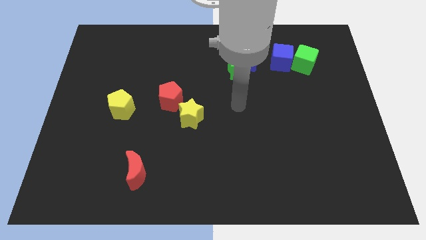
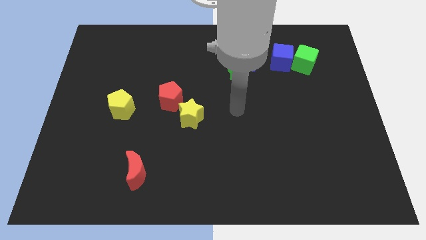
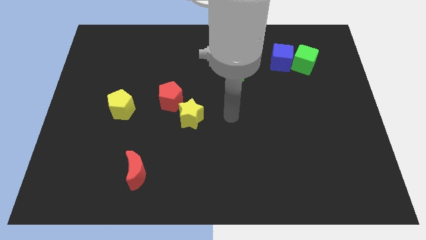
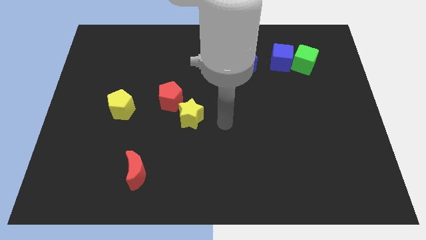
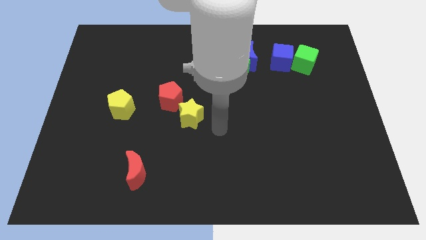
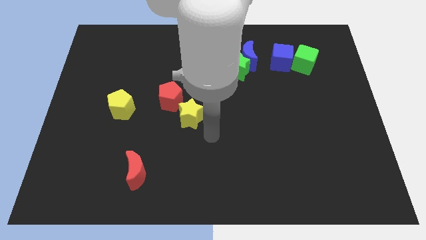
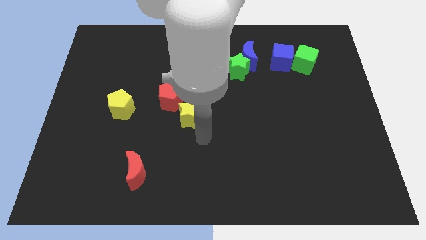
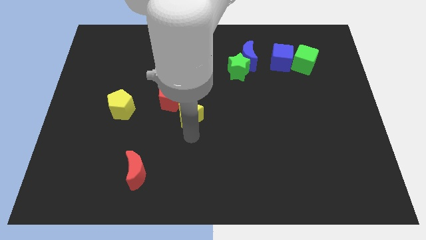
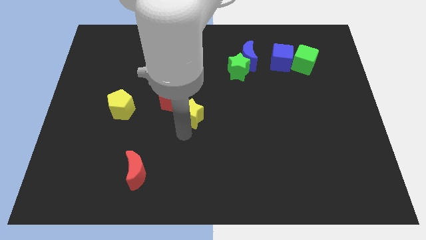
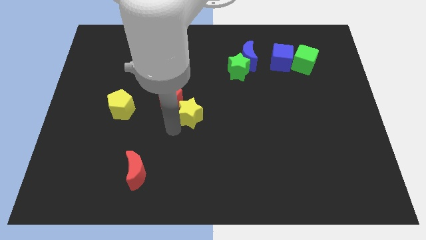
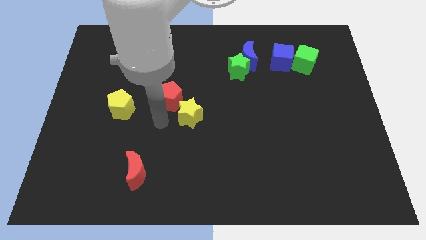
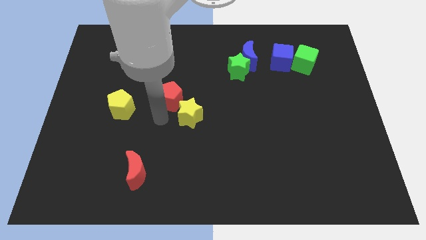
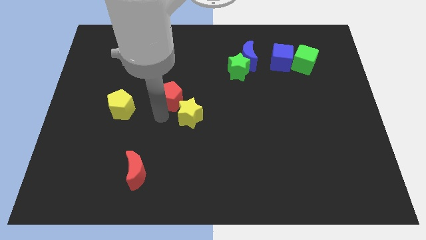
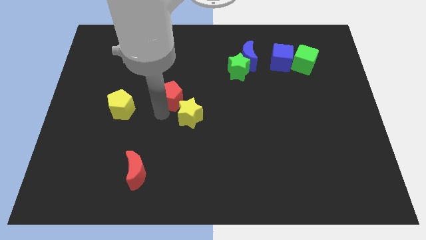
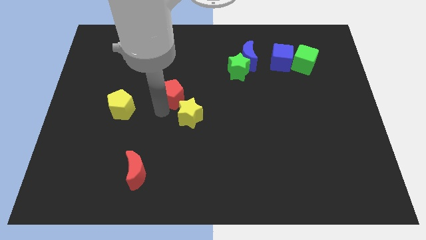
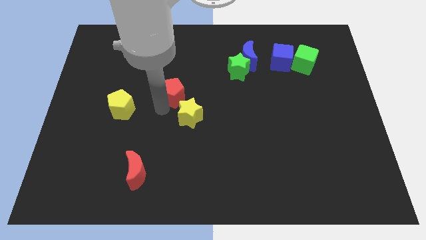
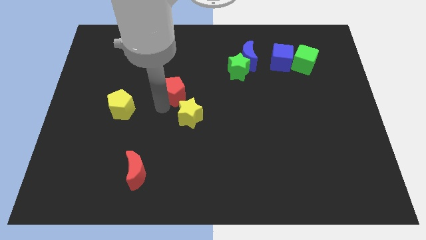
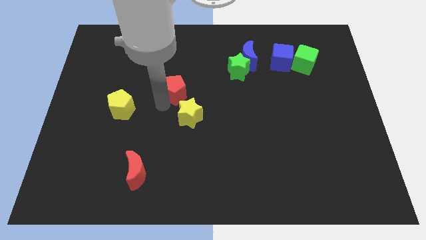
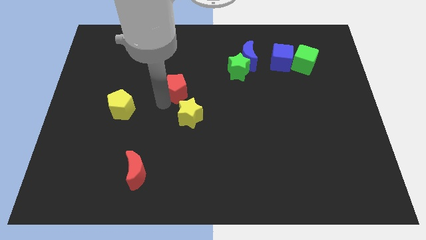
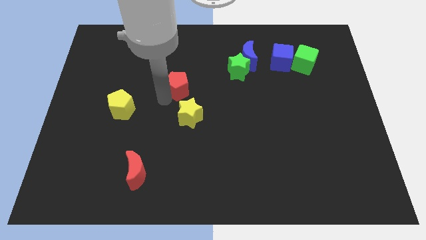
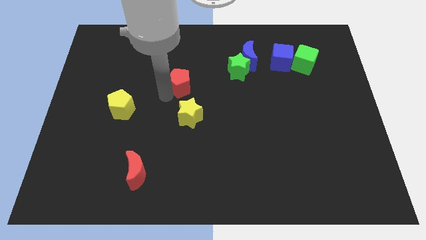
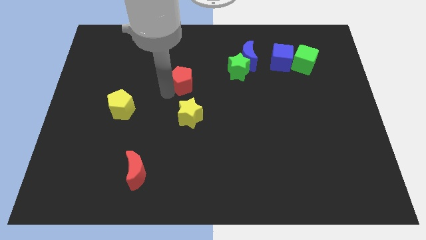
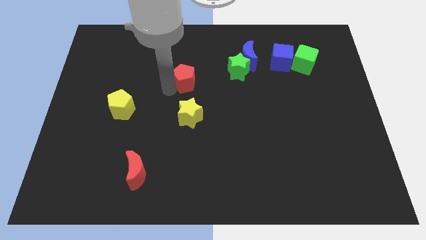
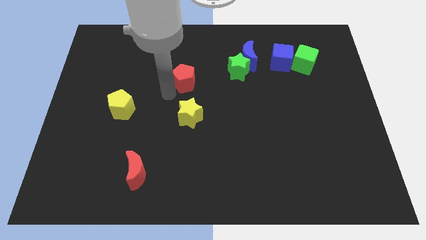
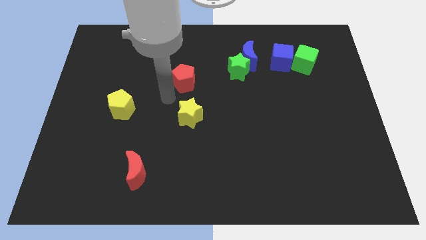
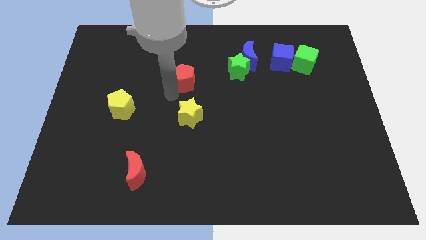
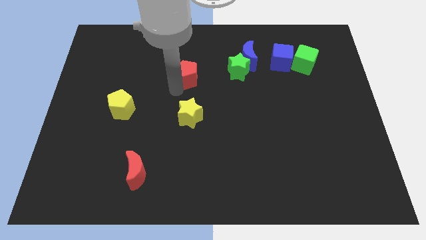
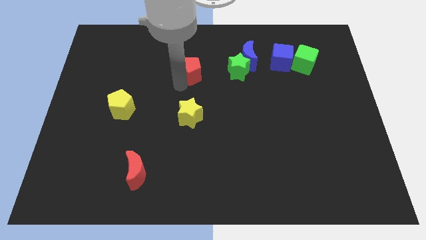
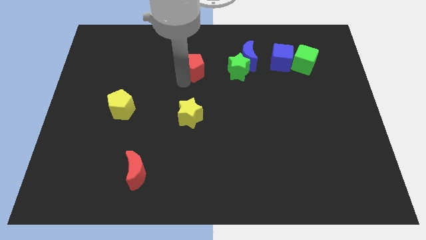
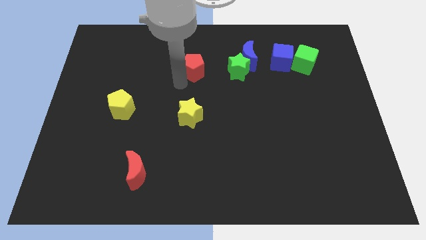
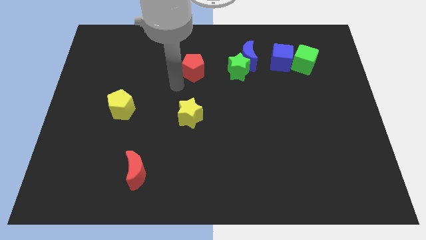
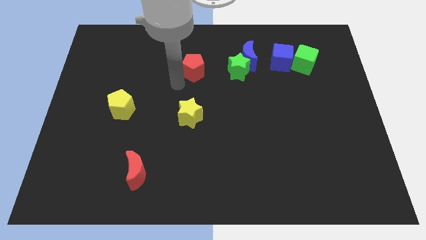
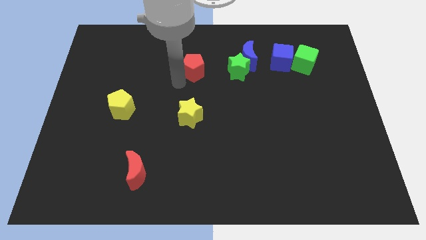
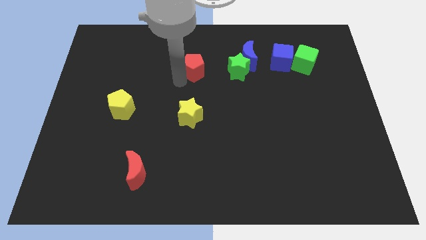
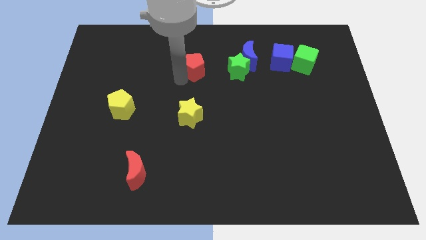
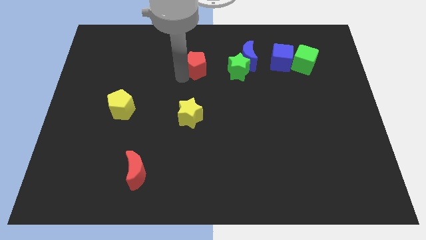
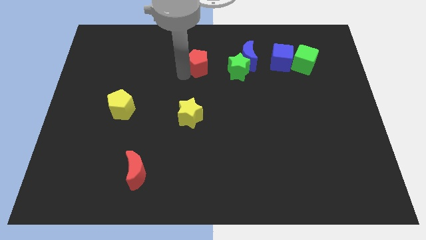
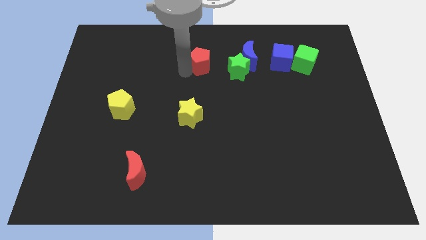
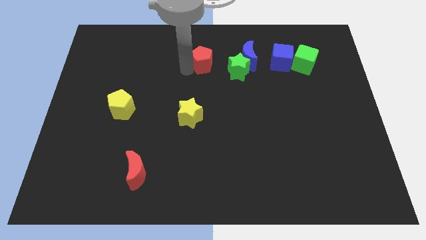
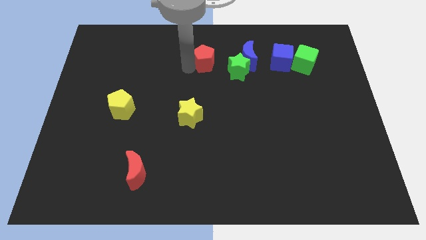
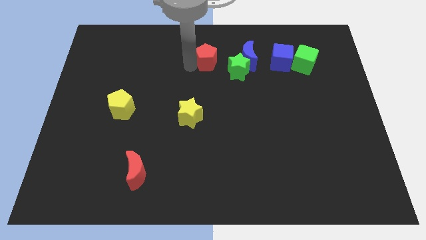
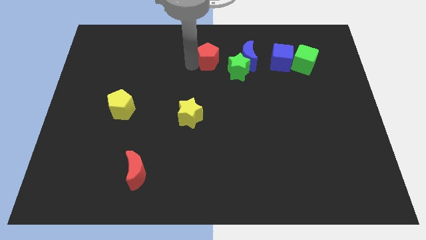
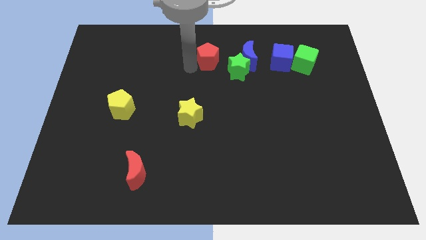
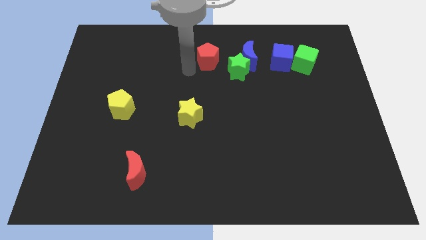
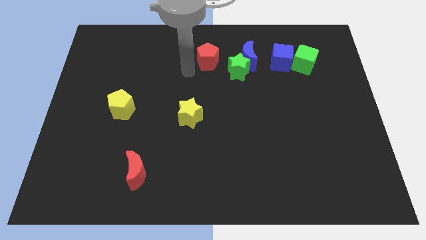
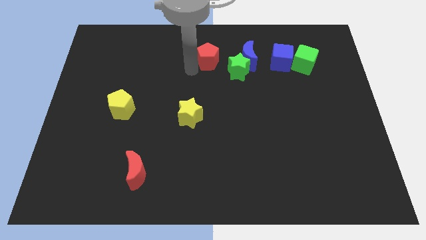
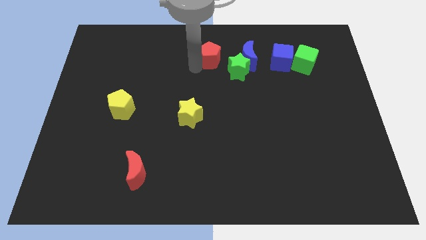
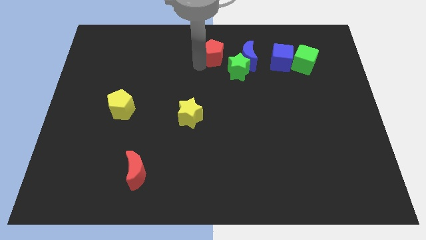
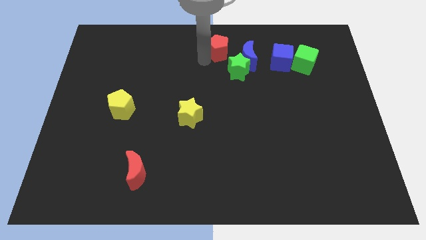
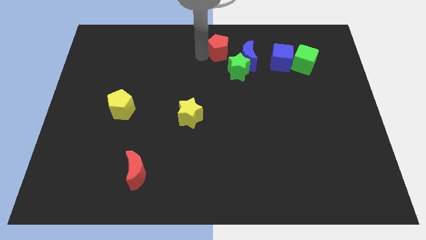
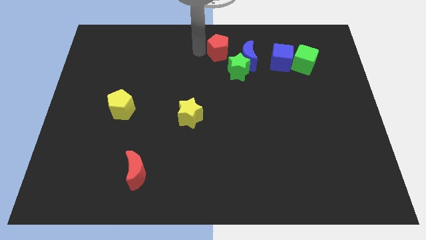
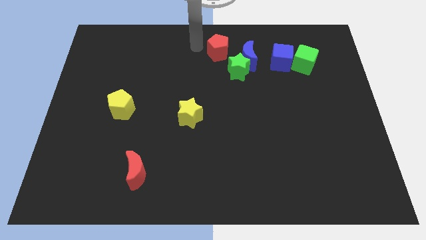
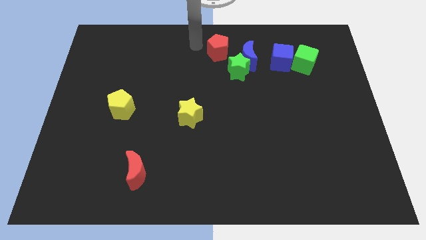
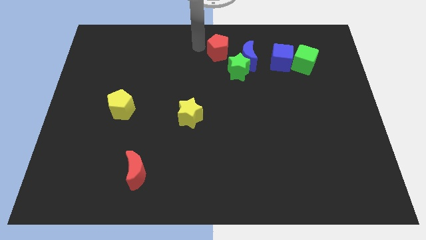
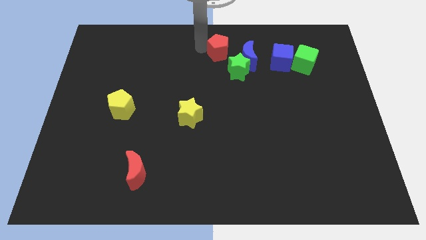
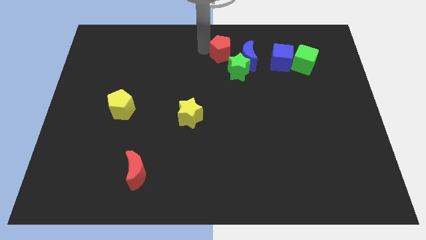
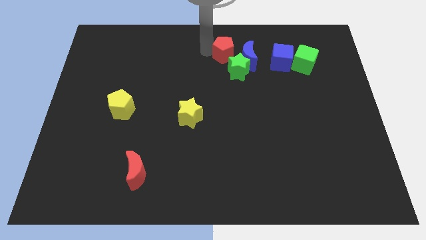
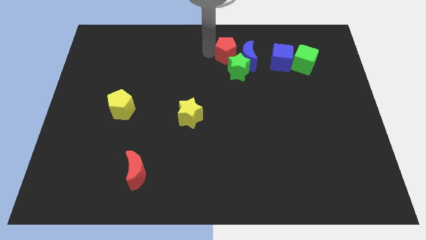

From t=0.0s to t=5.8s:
move the red pentagon to the blue moon

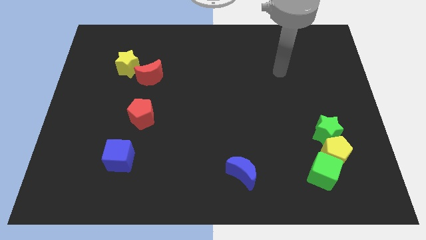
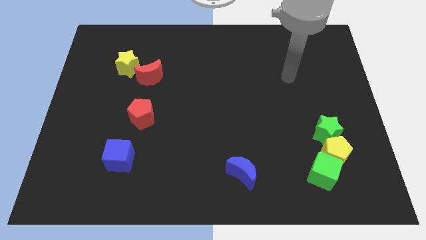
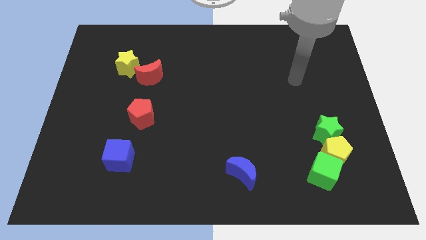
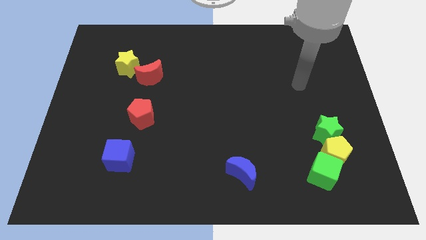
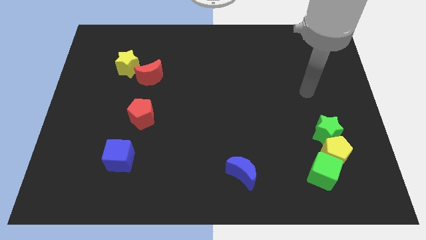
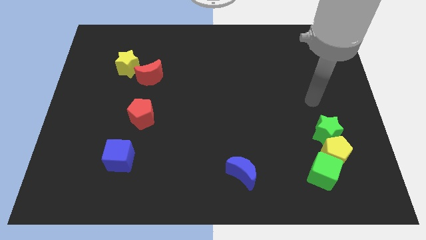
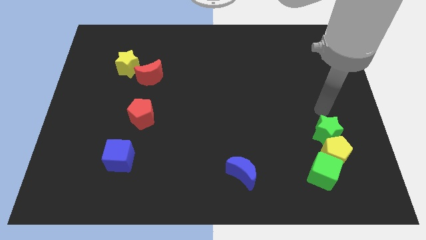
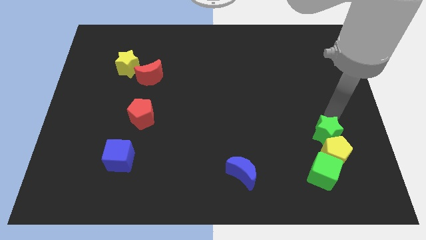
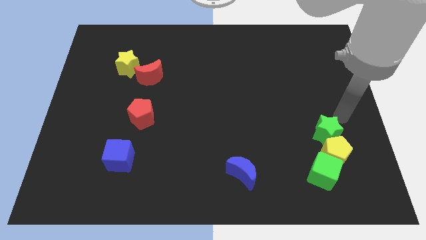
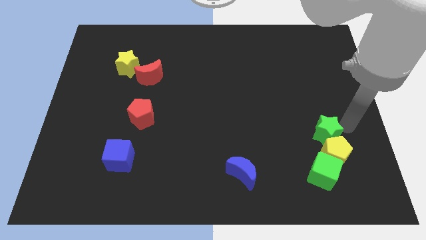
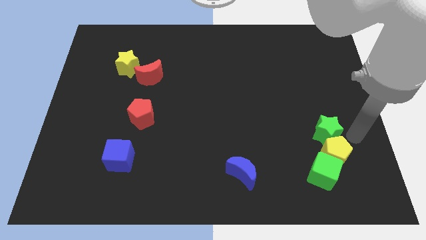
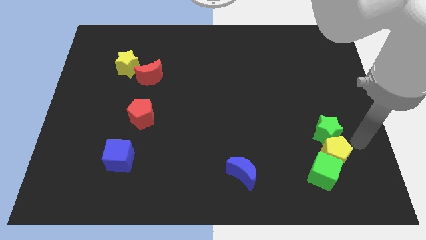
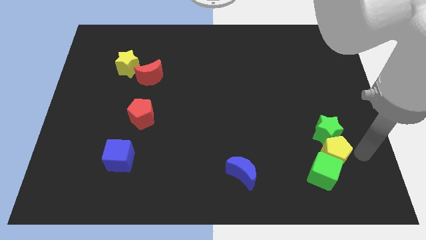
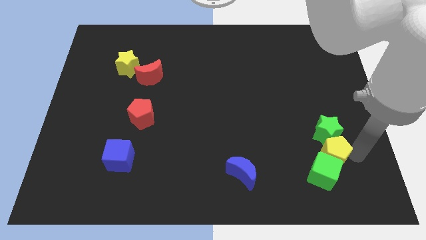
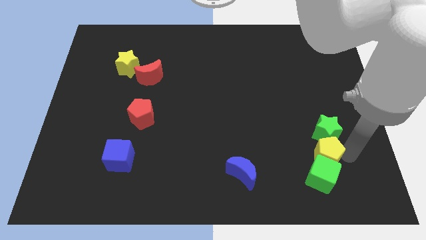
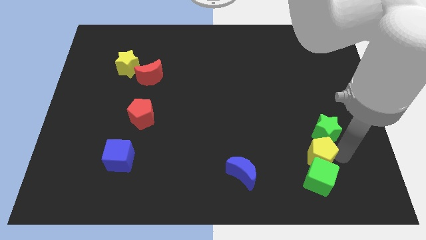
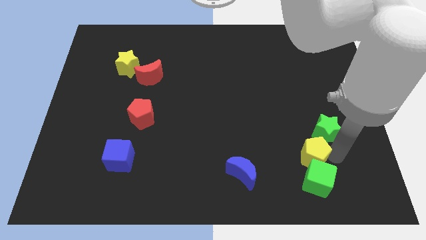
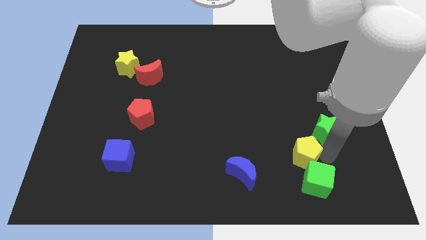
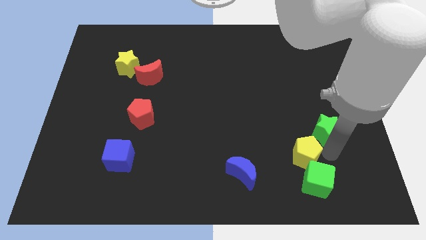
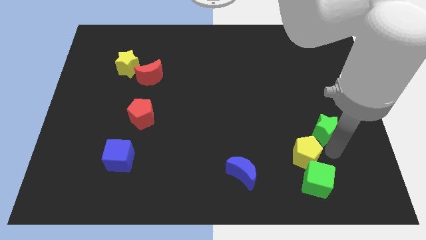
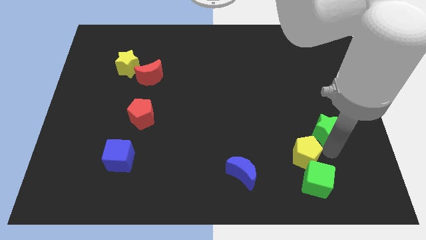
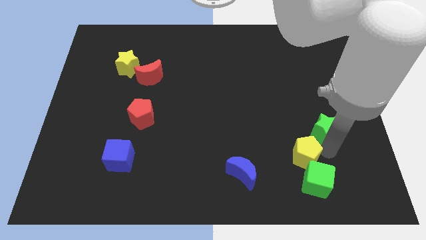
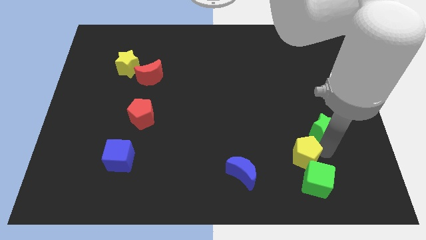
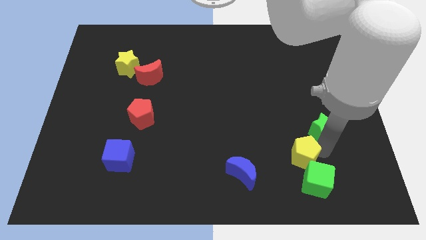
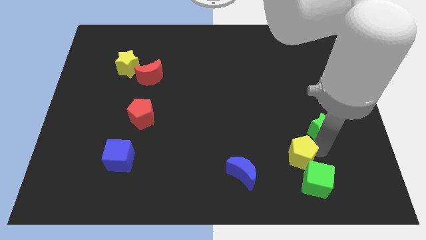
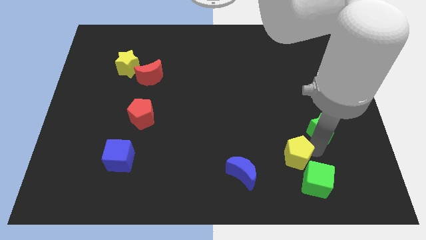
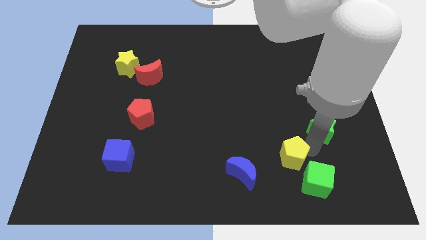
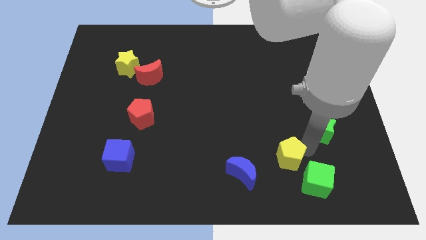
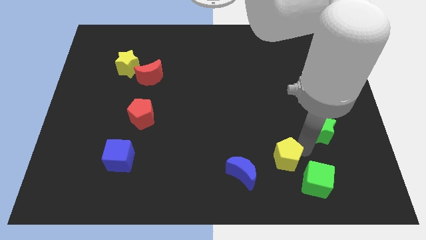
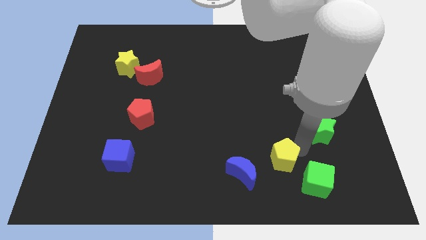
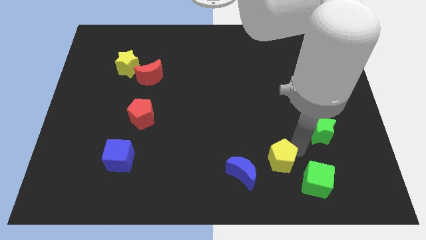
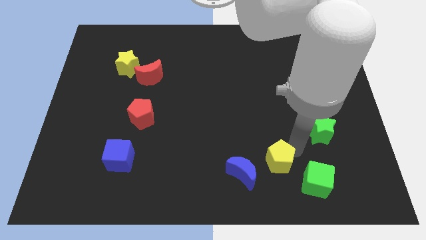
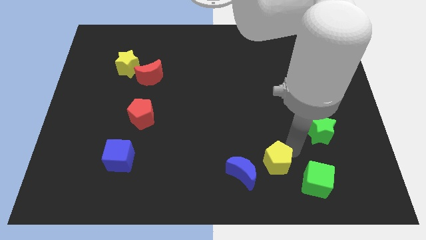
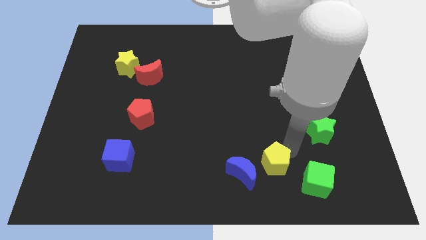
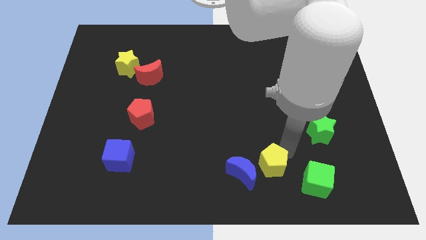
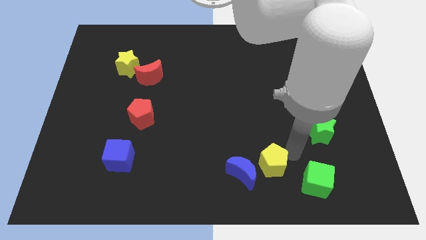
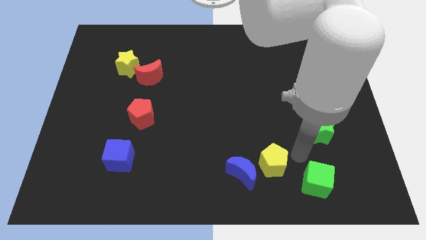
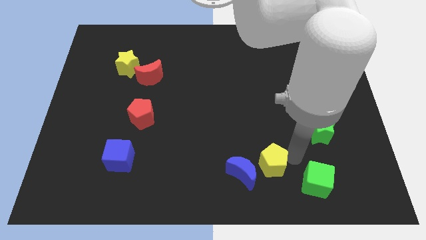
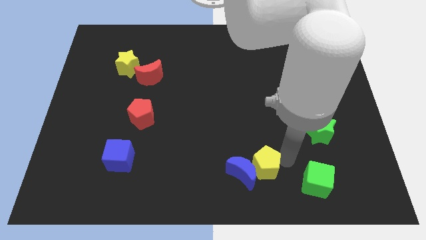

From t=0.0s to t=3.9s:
move the yellow pentagon next to the blue moon
